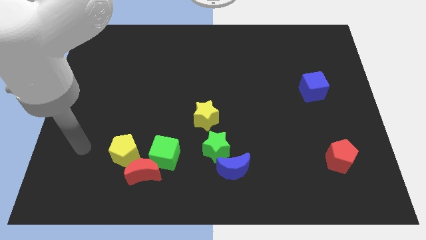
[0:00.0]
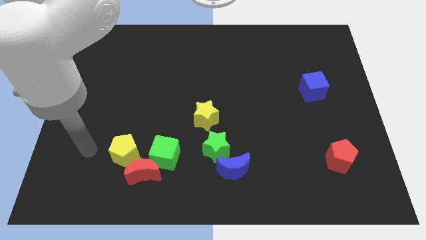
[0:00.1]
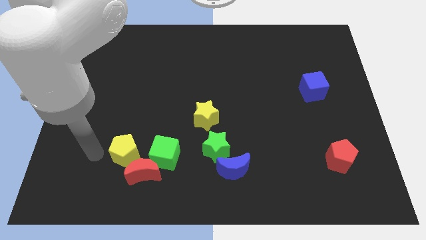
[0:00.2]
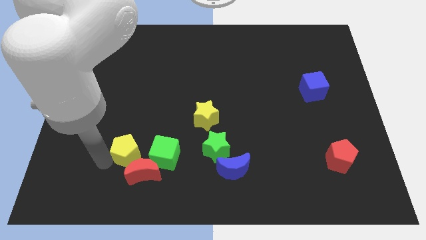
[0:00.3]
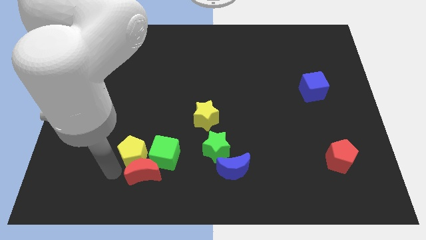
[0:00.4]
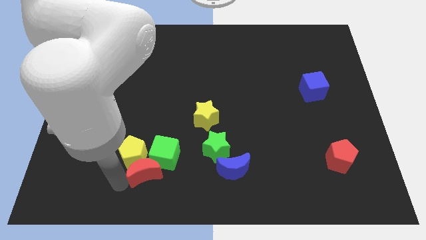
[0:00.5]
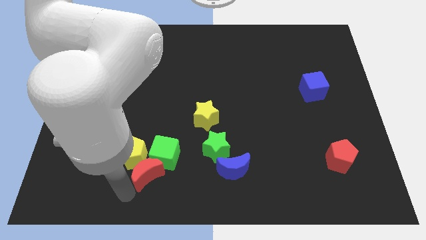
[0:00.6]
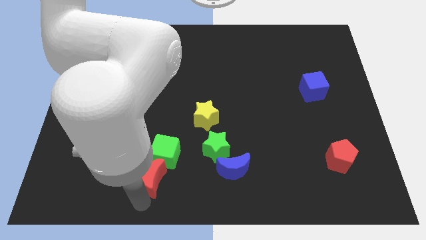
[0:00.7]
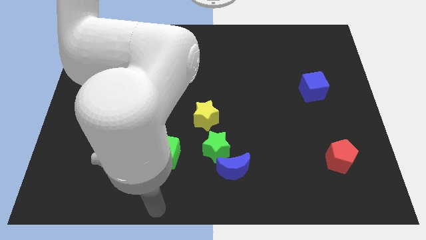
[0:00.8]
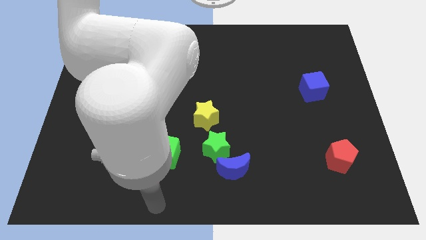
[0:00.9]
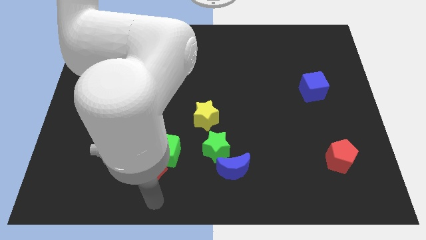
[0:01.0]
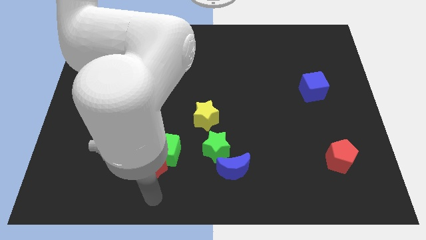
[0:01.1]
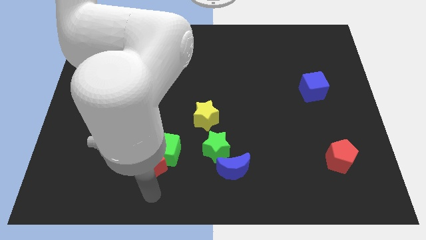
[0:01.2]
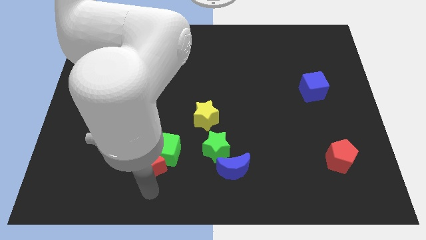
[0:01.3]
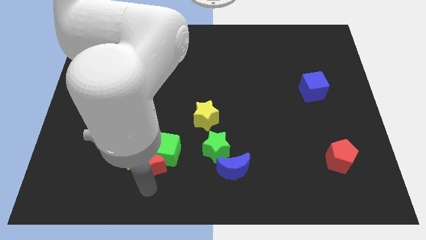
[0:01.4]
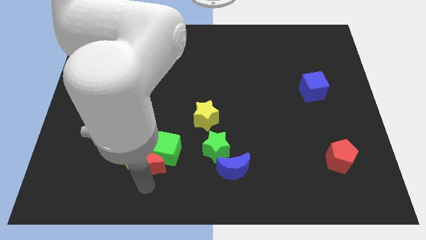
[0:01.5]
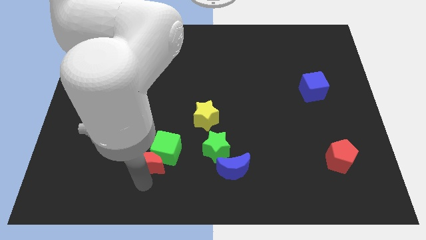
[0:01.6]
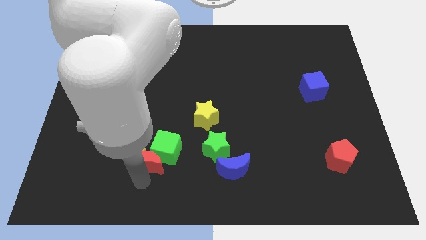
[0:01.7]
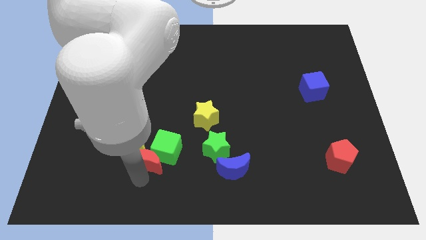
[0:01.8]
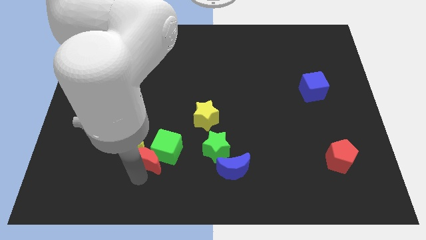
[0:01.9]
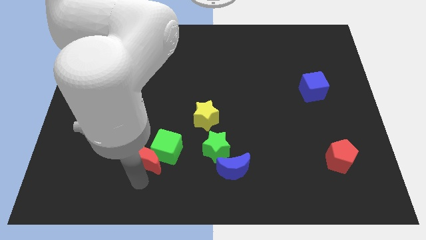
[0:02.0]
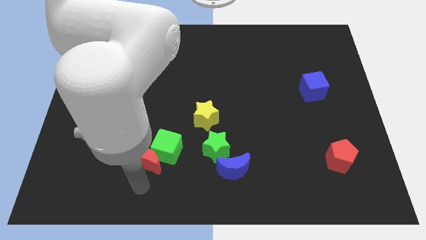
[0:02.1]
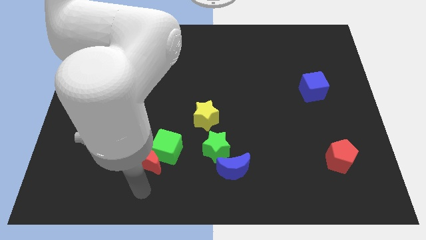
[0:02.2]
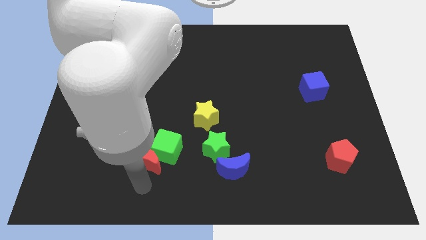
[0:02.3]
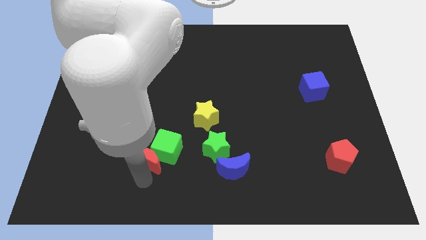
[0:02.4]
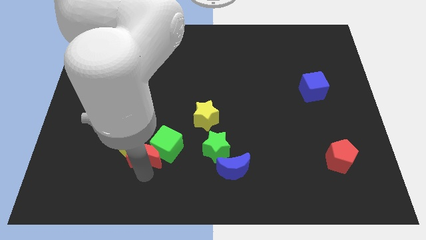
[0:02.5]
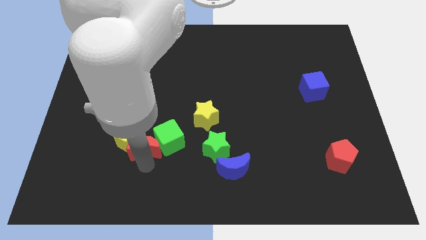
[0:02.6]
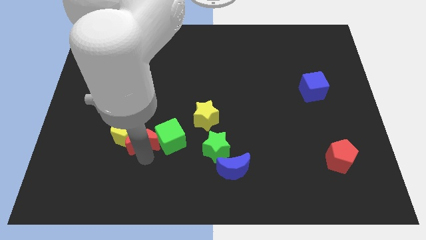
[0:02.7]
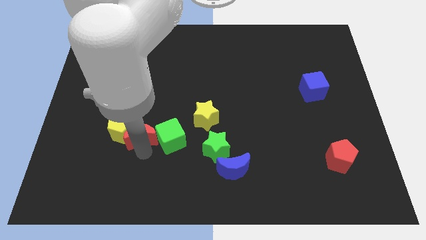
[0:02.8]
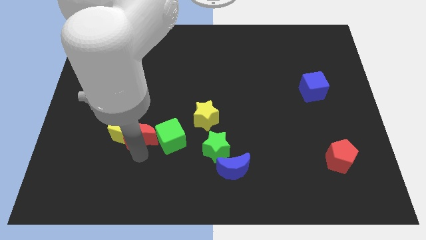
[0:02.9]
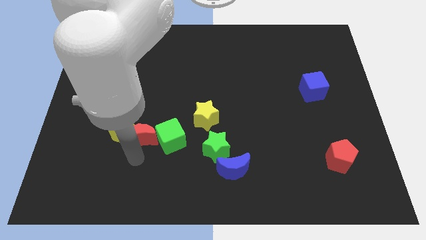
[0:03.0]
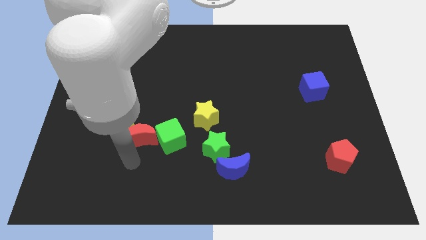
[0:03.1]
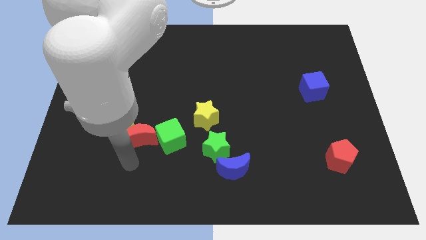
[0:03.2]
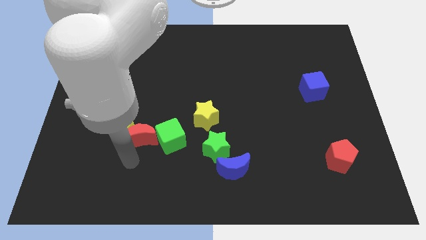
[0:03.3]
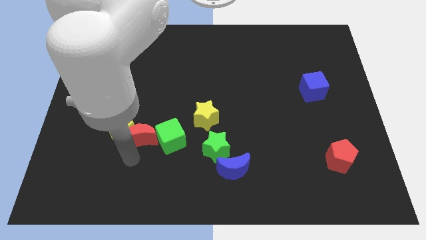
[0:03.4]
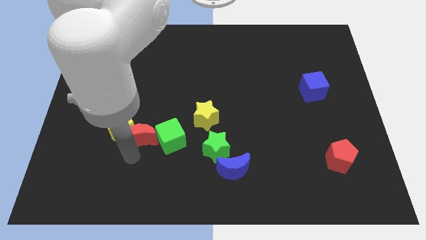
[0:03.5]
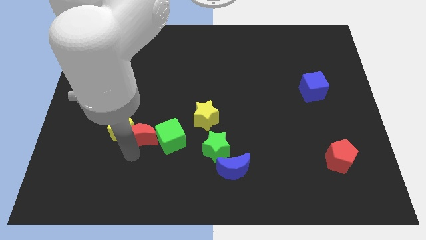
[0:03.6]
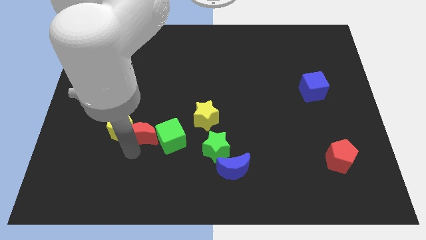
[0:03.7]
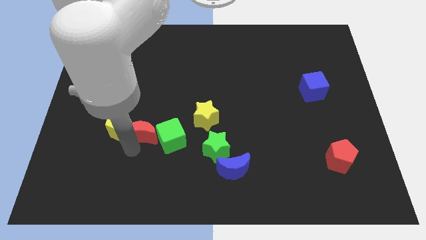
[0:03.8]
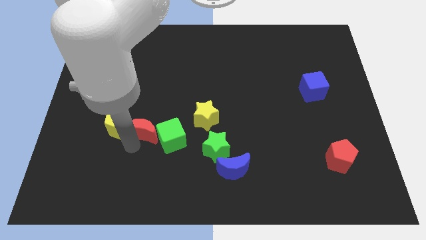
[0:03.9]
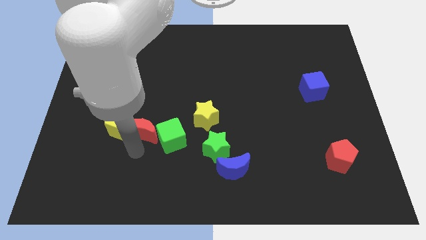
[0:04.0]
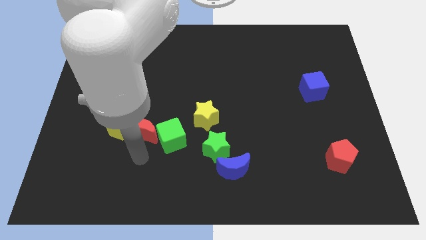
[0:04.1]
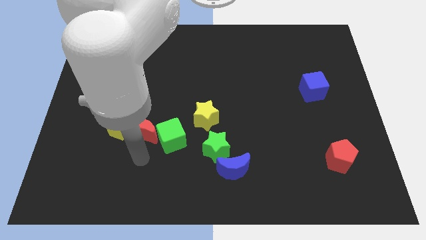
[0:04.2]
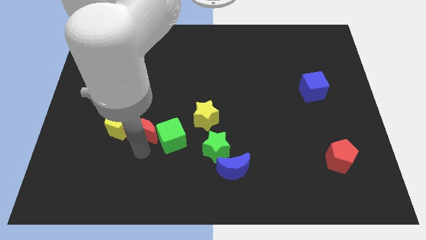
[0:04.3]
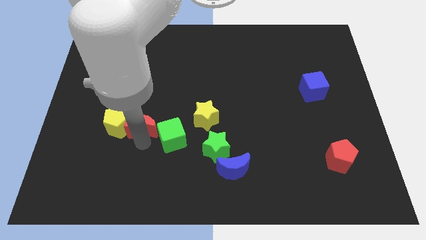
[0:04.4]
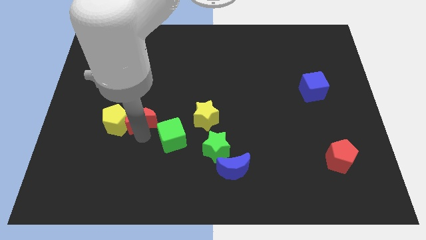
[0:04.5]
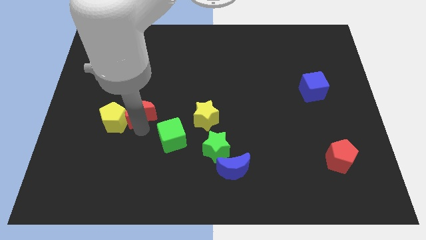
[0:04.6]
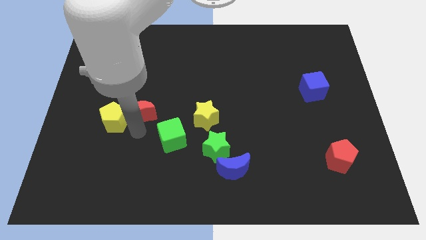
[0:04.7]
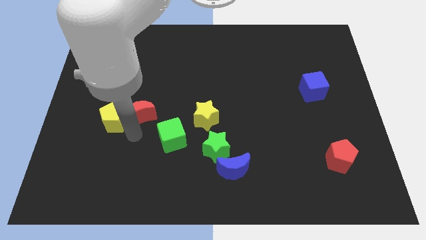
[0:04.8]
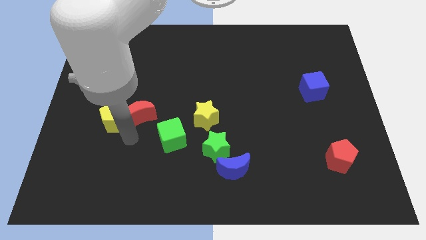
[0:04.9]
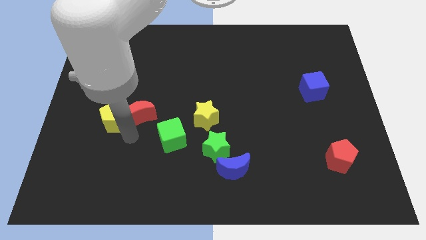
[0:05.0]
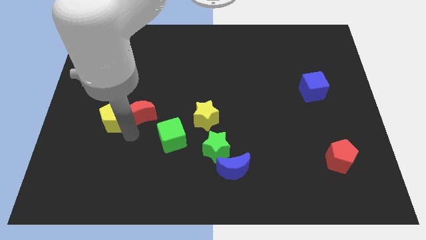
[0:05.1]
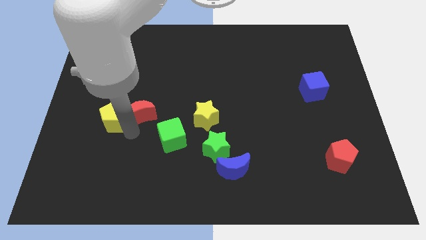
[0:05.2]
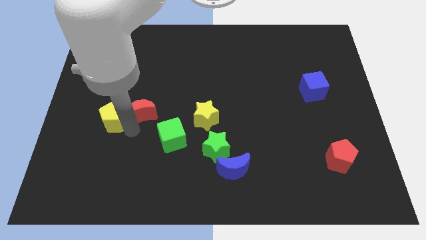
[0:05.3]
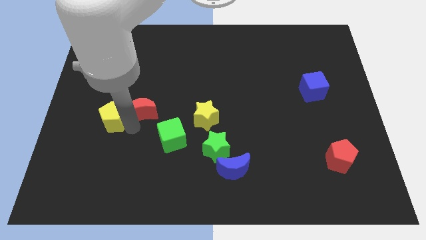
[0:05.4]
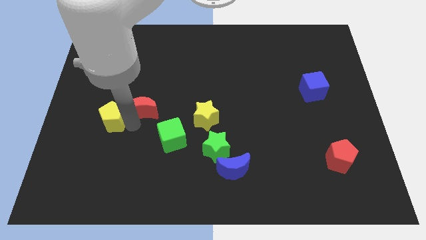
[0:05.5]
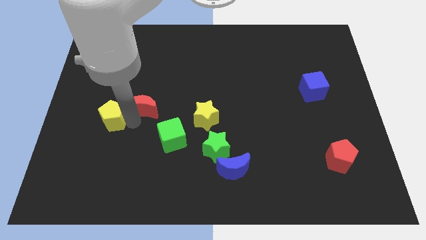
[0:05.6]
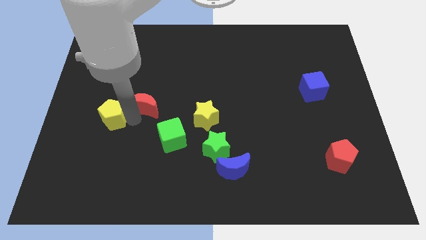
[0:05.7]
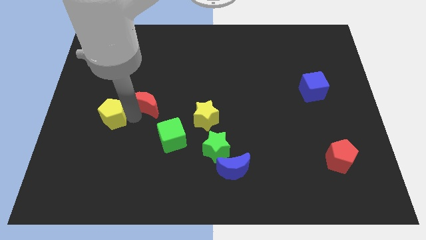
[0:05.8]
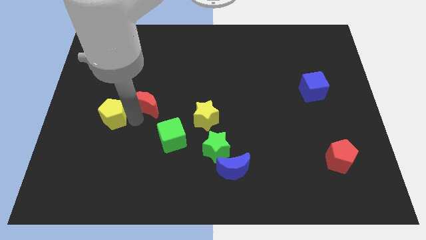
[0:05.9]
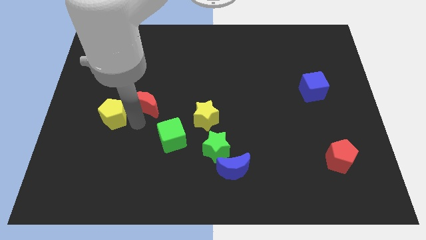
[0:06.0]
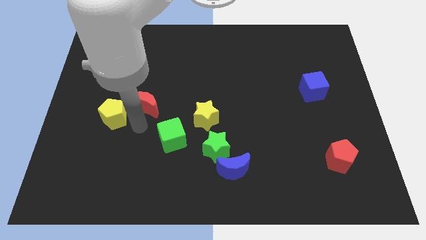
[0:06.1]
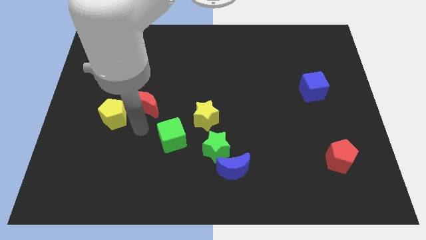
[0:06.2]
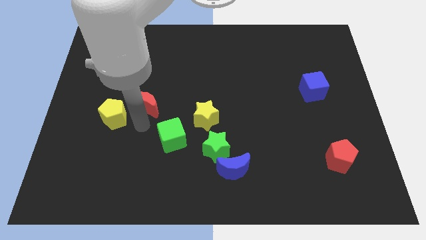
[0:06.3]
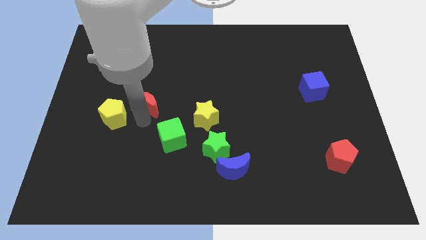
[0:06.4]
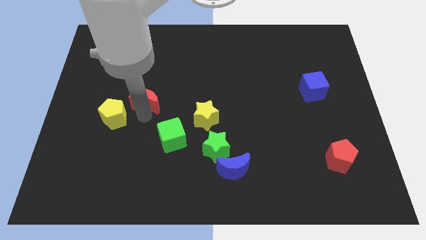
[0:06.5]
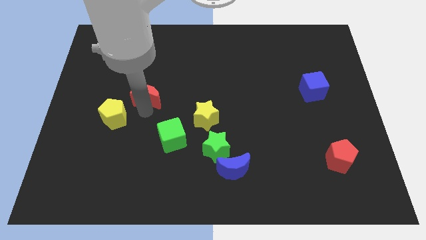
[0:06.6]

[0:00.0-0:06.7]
slide the red moon up

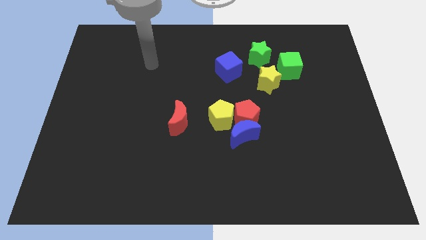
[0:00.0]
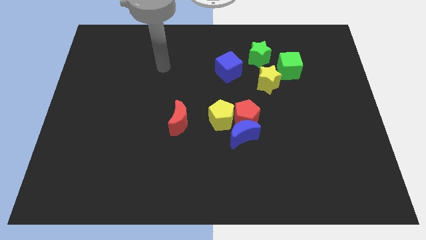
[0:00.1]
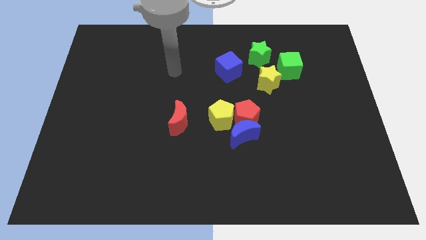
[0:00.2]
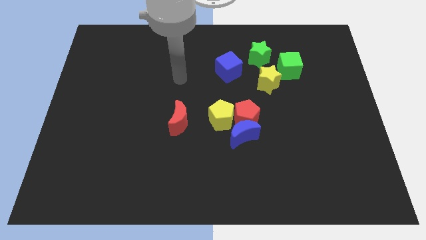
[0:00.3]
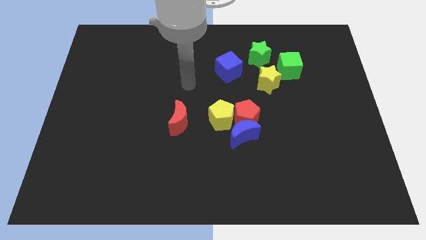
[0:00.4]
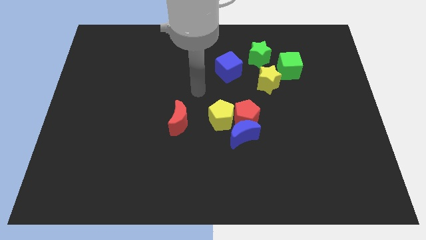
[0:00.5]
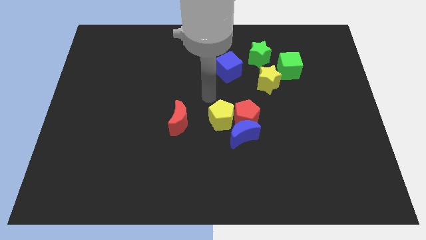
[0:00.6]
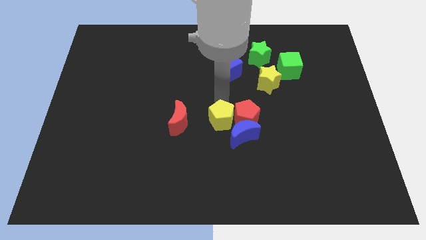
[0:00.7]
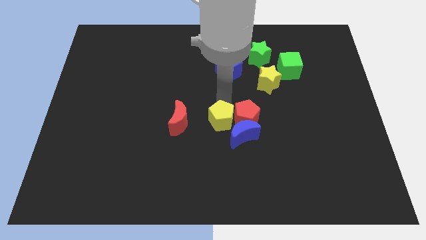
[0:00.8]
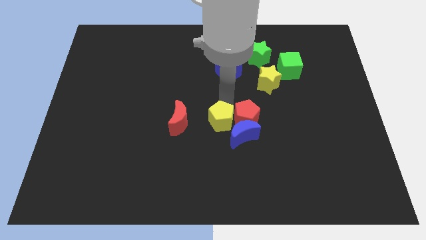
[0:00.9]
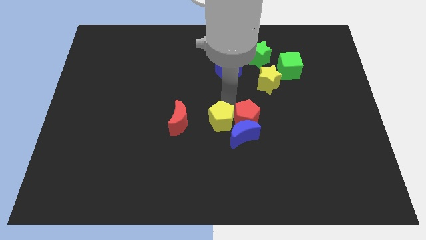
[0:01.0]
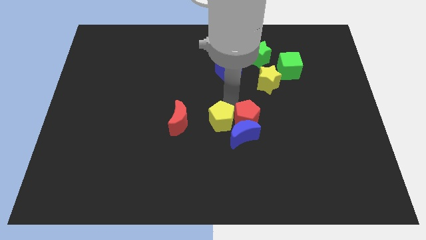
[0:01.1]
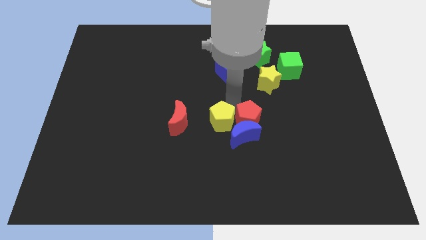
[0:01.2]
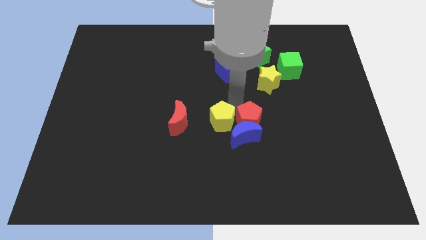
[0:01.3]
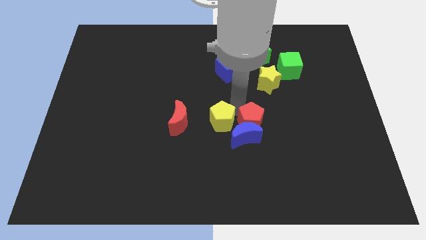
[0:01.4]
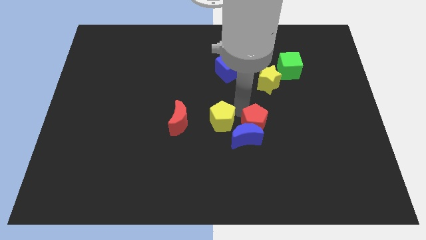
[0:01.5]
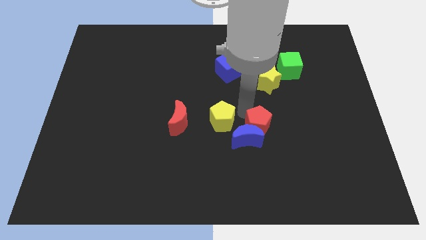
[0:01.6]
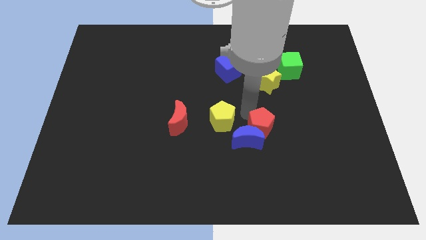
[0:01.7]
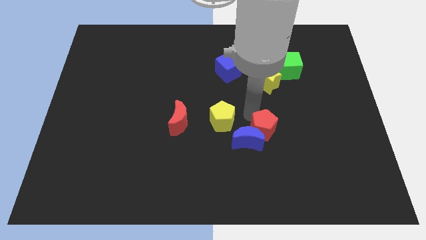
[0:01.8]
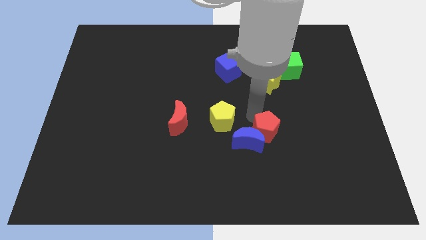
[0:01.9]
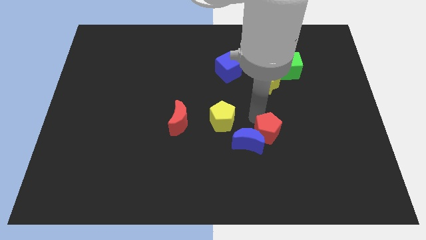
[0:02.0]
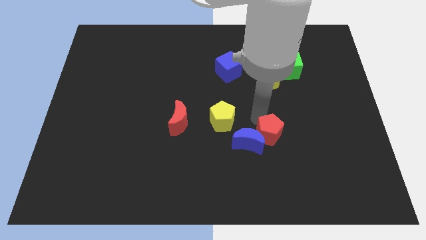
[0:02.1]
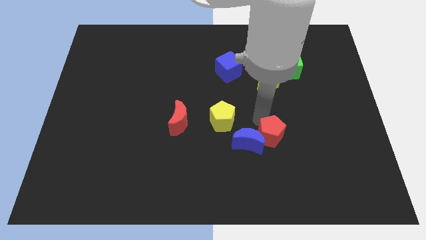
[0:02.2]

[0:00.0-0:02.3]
slightly move the red pentagon down and to the right
